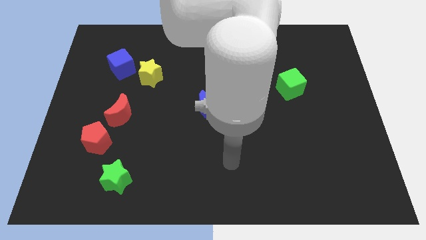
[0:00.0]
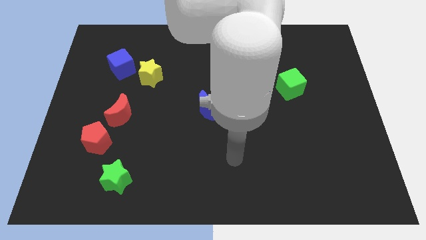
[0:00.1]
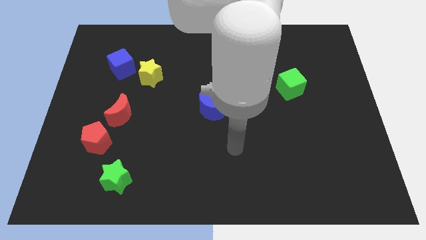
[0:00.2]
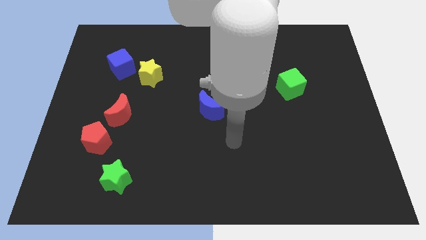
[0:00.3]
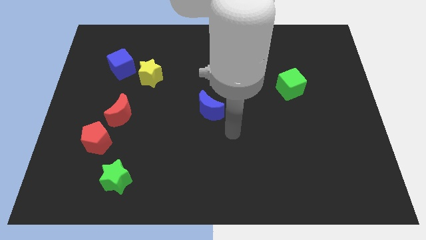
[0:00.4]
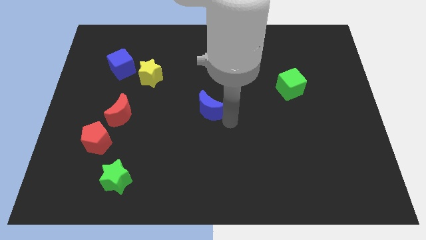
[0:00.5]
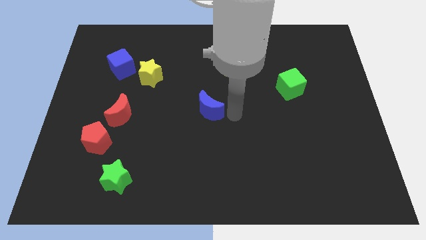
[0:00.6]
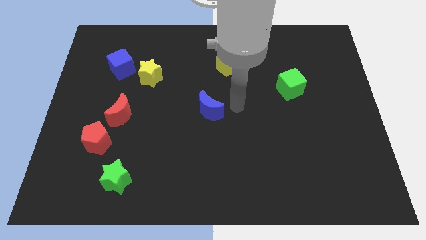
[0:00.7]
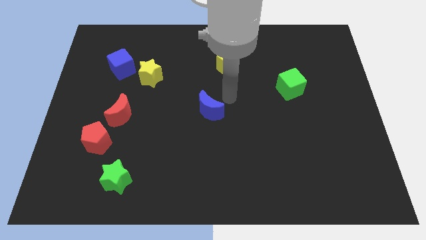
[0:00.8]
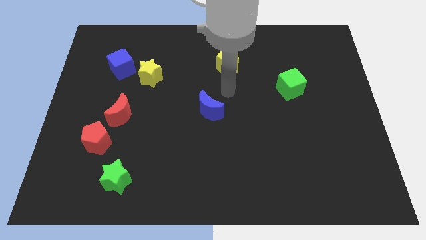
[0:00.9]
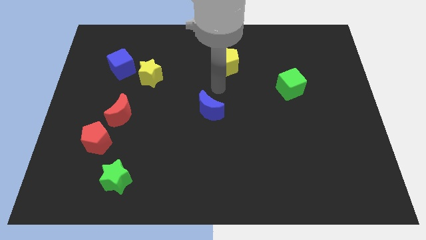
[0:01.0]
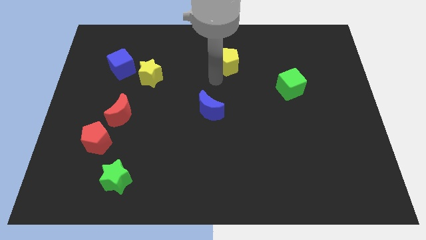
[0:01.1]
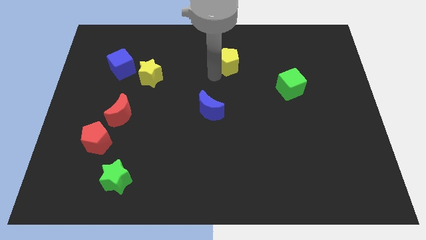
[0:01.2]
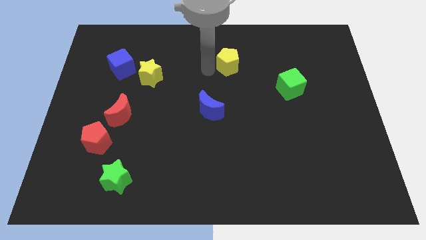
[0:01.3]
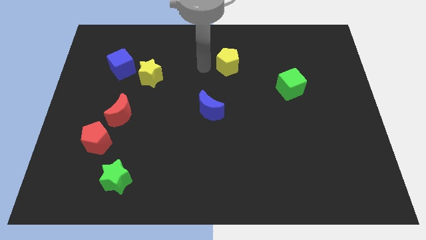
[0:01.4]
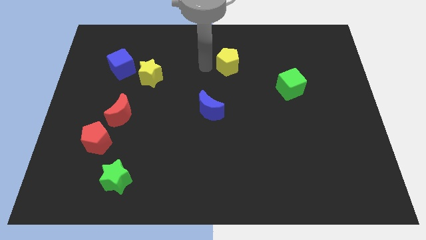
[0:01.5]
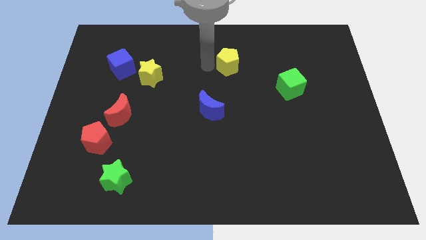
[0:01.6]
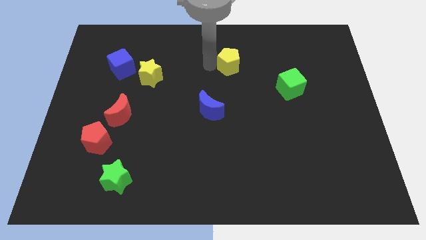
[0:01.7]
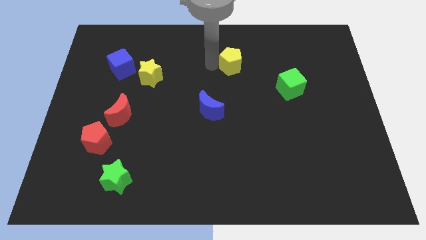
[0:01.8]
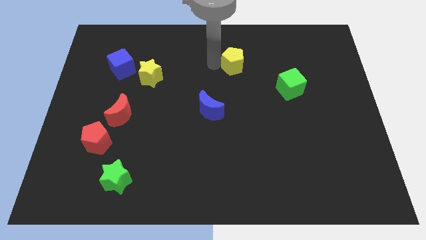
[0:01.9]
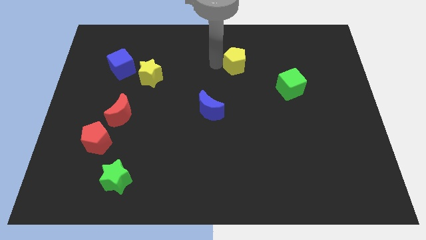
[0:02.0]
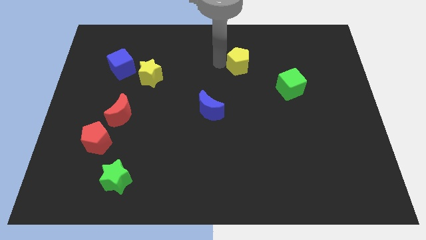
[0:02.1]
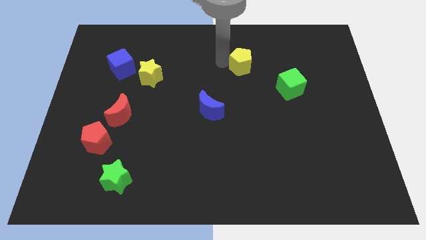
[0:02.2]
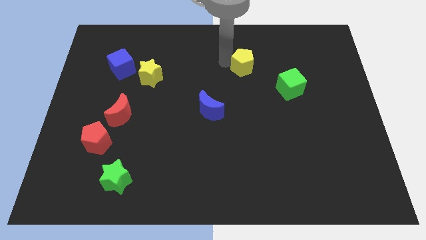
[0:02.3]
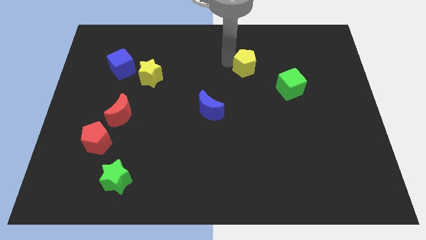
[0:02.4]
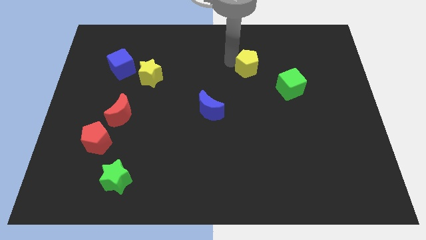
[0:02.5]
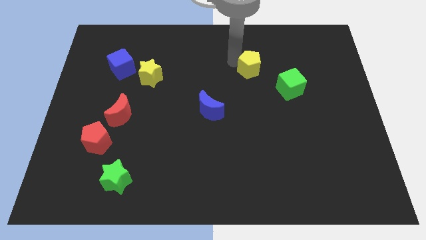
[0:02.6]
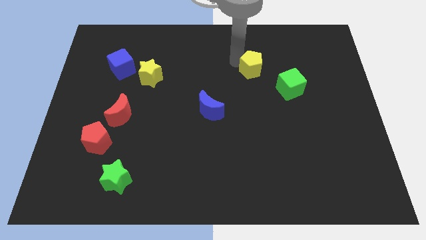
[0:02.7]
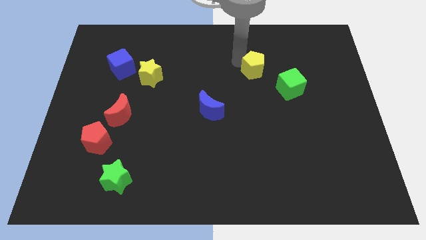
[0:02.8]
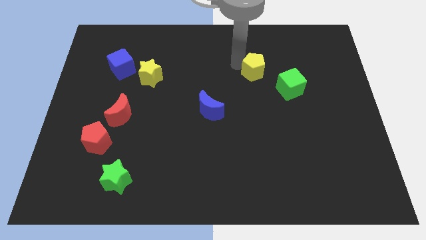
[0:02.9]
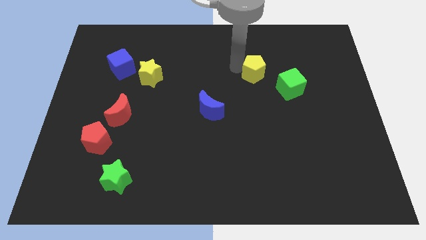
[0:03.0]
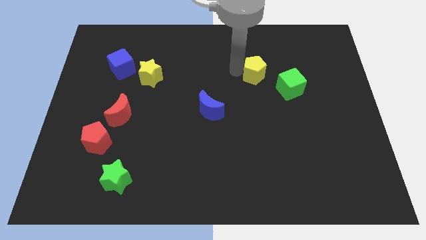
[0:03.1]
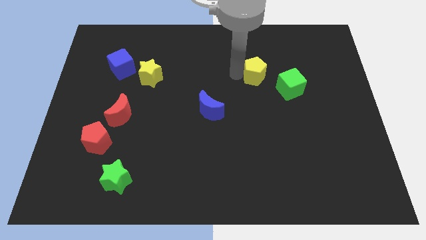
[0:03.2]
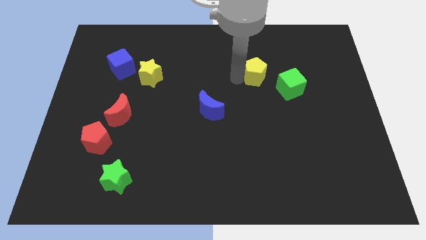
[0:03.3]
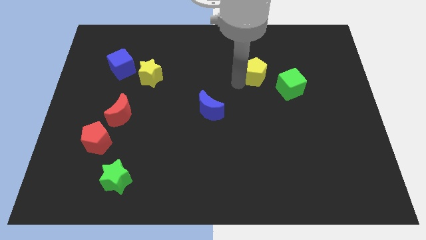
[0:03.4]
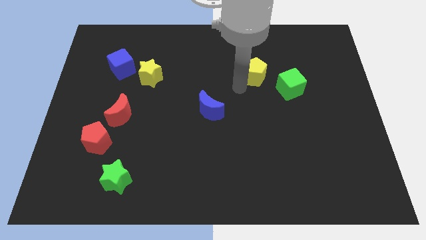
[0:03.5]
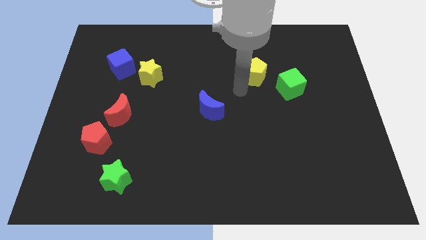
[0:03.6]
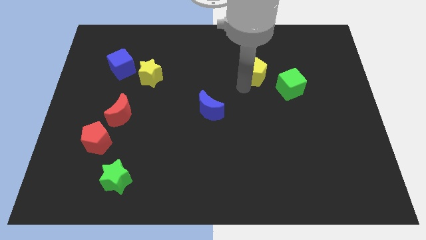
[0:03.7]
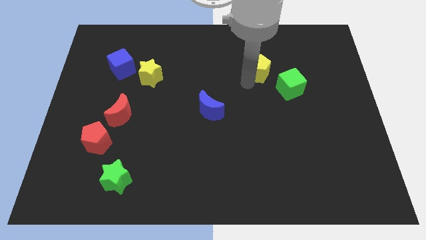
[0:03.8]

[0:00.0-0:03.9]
slide the yellow pentagon to the right somewhat

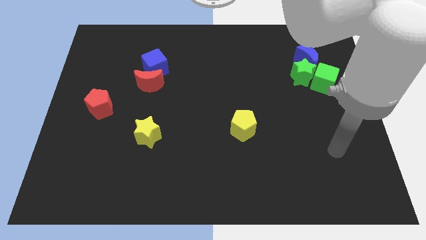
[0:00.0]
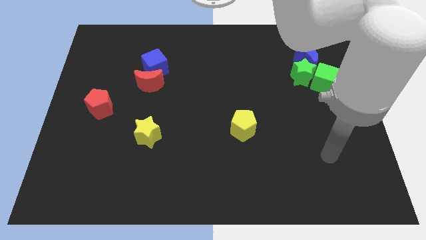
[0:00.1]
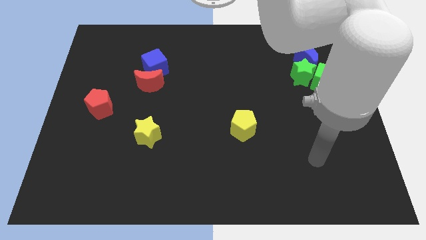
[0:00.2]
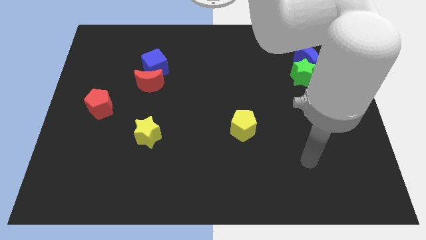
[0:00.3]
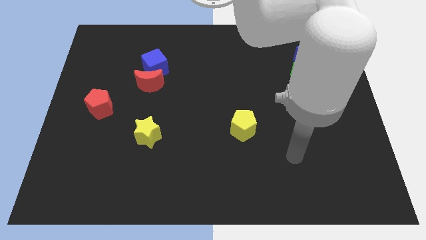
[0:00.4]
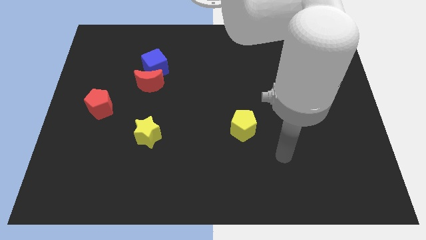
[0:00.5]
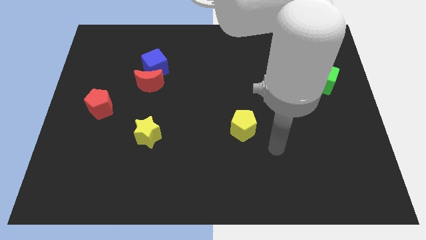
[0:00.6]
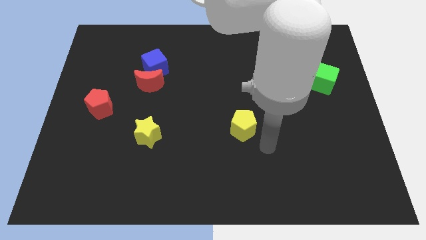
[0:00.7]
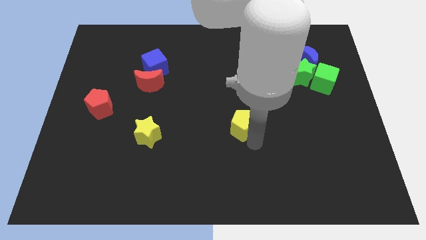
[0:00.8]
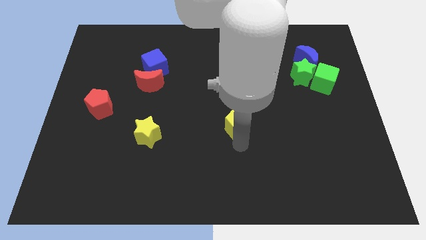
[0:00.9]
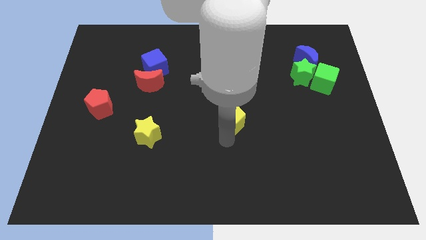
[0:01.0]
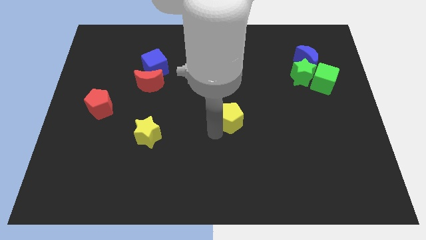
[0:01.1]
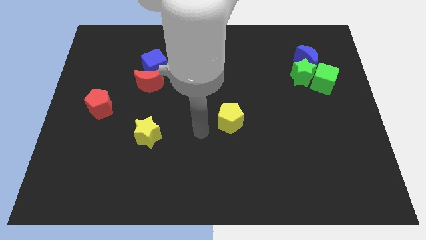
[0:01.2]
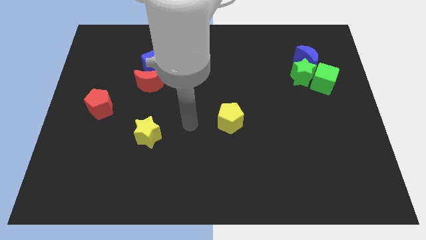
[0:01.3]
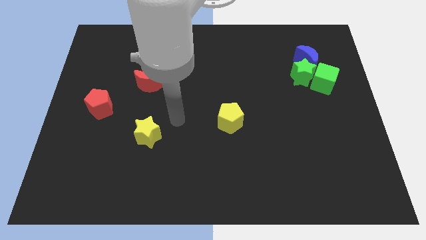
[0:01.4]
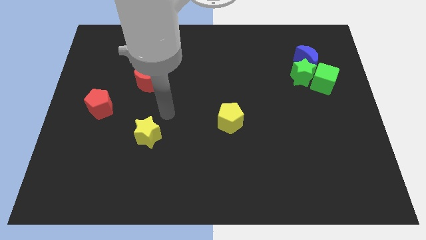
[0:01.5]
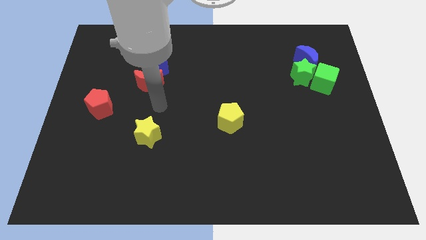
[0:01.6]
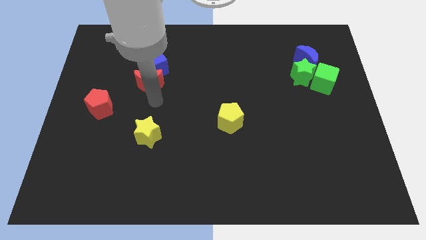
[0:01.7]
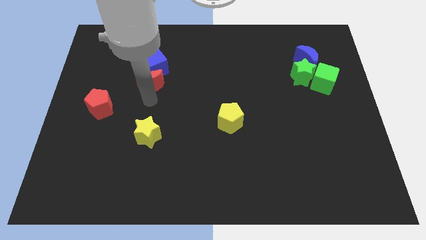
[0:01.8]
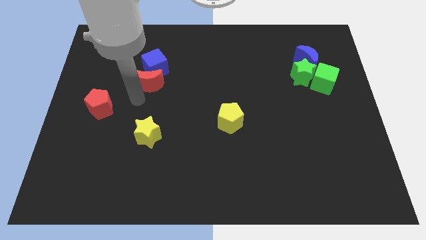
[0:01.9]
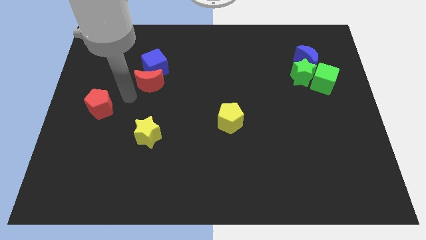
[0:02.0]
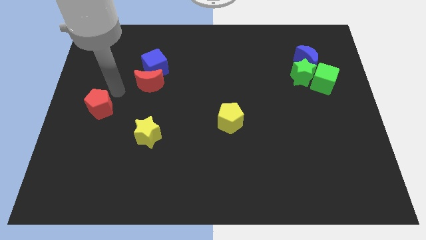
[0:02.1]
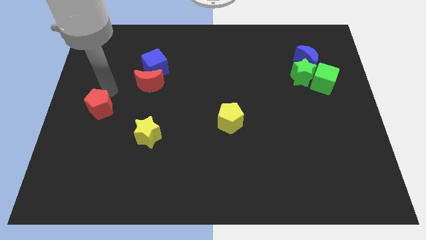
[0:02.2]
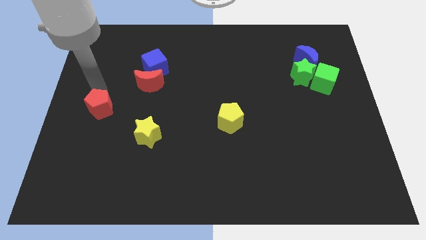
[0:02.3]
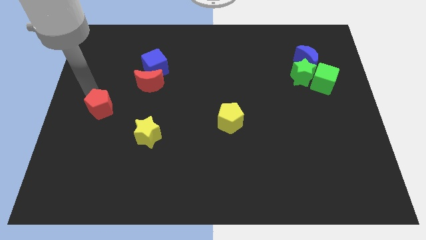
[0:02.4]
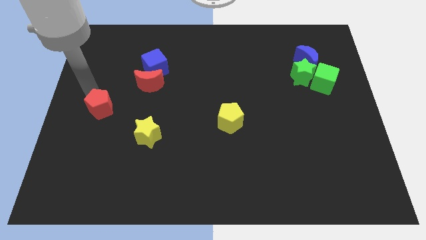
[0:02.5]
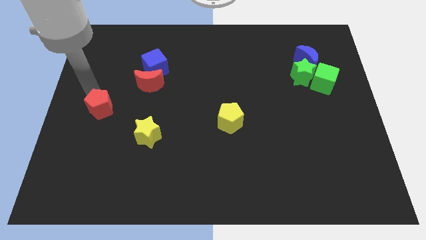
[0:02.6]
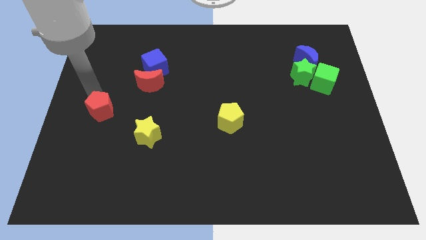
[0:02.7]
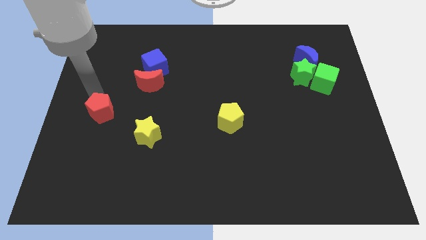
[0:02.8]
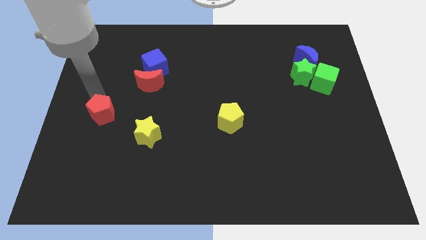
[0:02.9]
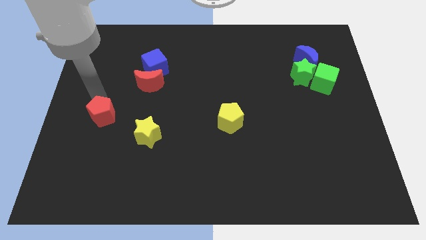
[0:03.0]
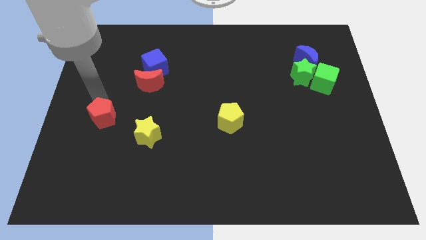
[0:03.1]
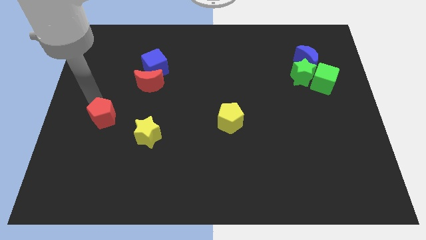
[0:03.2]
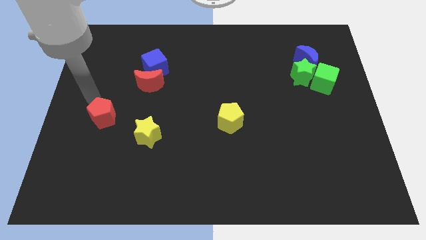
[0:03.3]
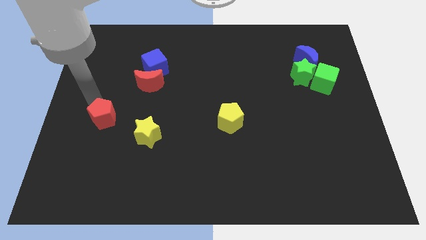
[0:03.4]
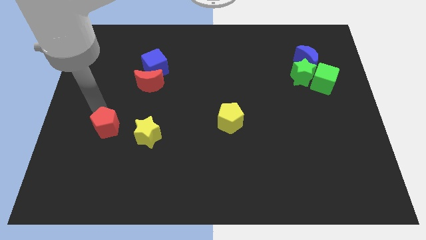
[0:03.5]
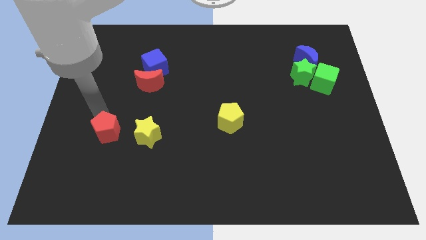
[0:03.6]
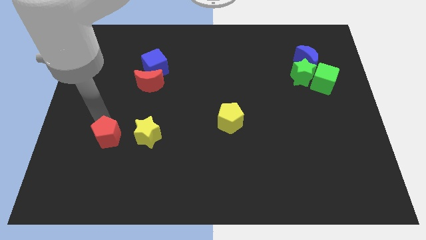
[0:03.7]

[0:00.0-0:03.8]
slide the red pentagon slightly diagonally downwards and to the right

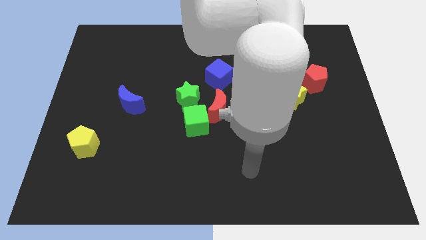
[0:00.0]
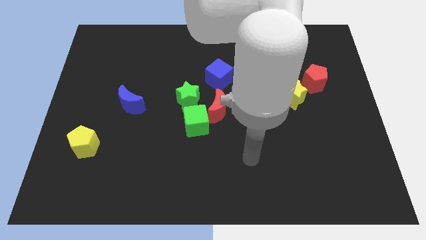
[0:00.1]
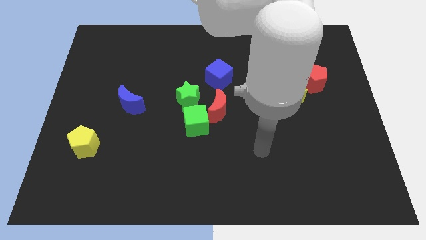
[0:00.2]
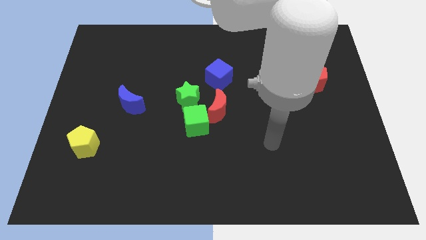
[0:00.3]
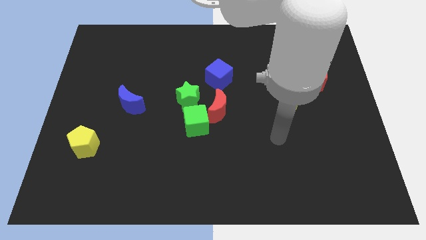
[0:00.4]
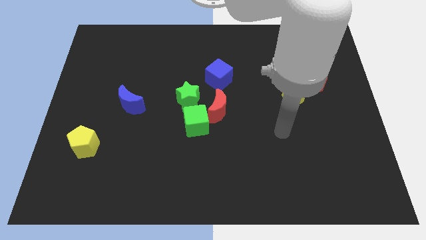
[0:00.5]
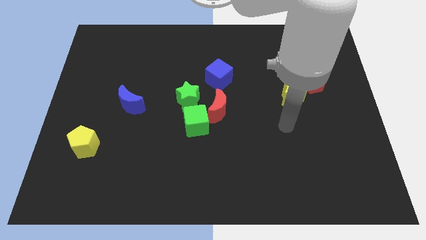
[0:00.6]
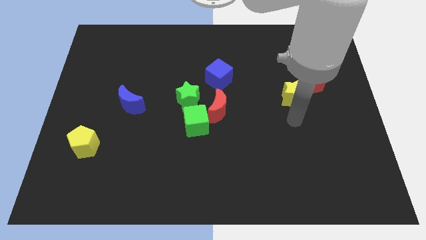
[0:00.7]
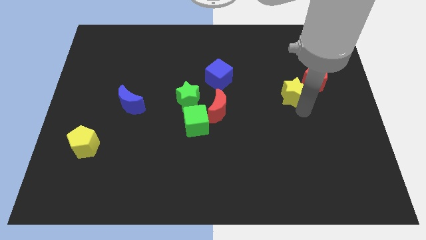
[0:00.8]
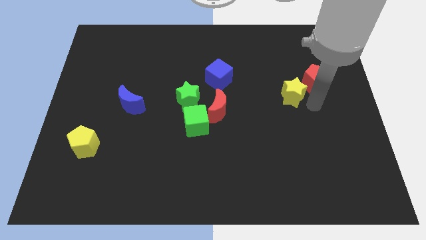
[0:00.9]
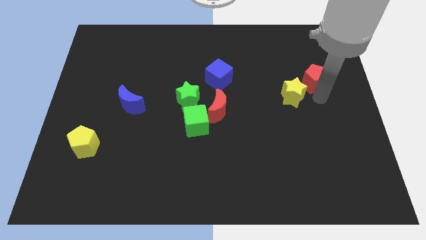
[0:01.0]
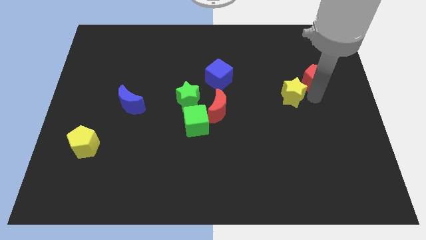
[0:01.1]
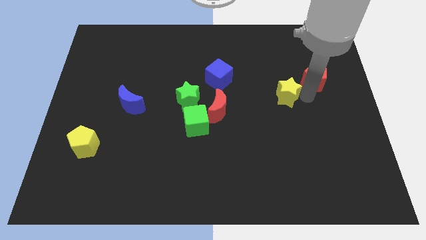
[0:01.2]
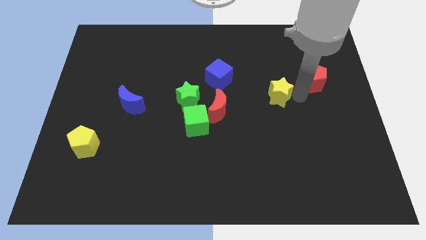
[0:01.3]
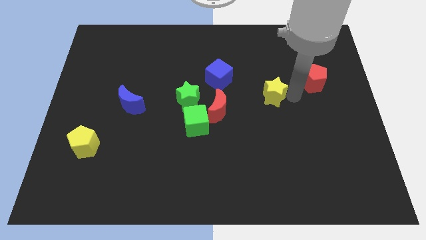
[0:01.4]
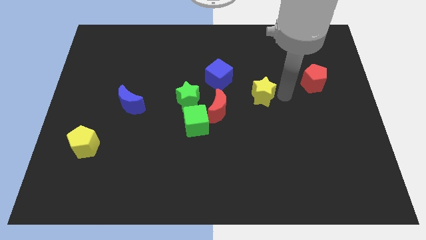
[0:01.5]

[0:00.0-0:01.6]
slightly slide the yellow star to the left
